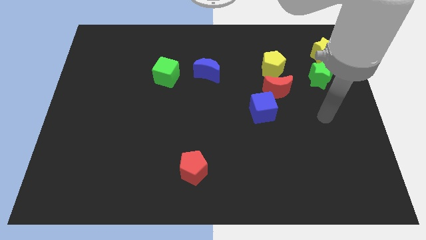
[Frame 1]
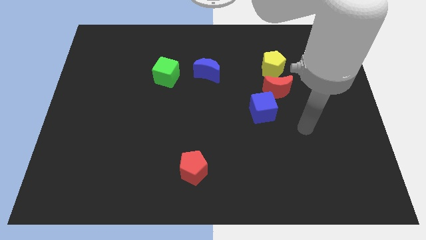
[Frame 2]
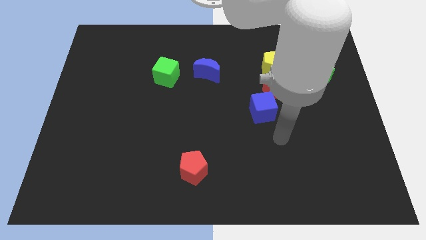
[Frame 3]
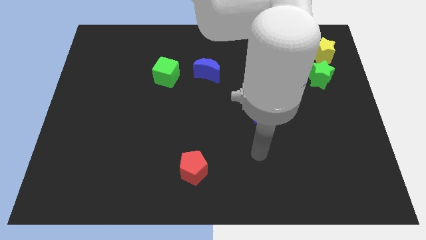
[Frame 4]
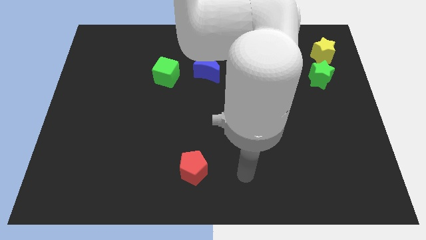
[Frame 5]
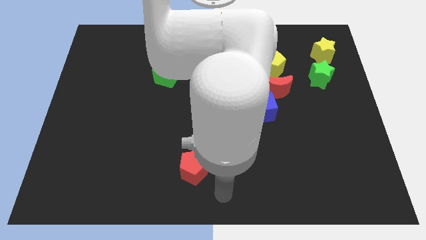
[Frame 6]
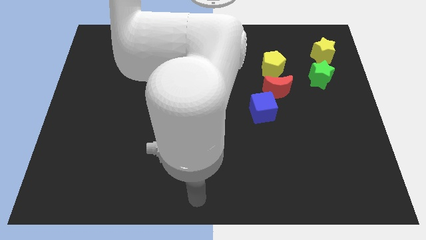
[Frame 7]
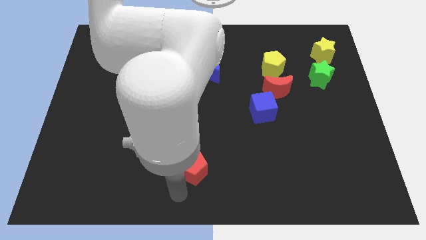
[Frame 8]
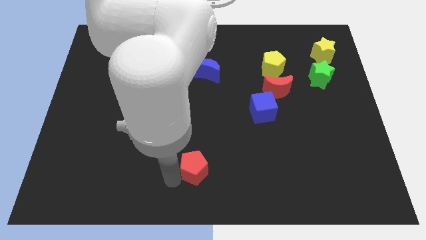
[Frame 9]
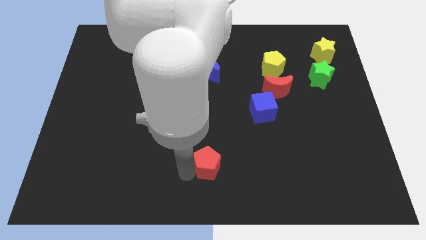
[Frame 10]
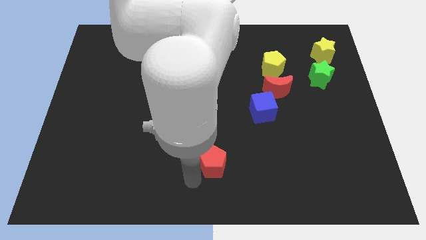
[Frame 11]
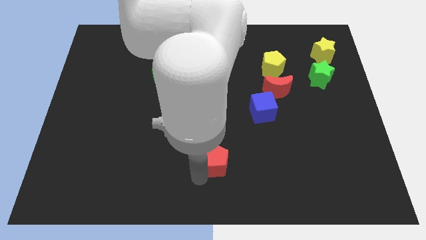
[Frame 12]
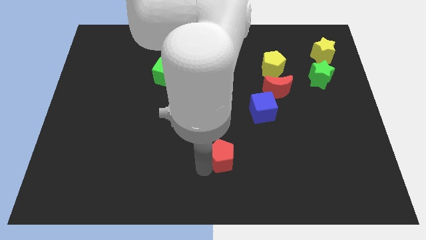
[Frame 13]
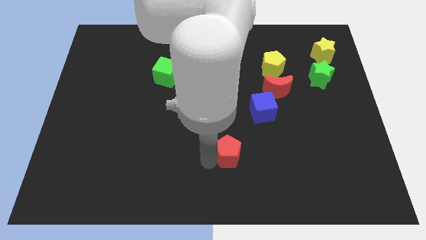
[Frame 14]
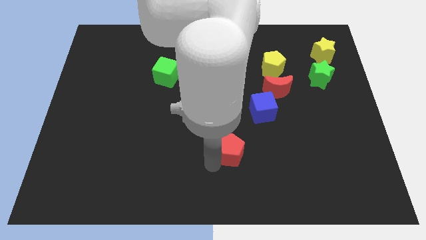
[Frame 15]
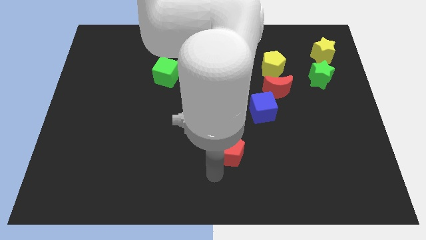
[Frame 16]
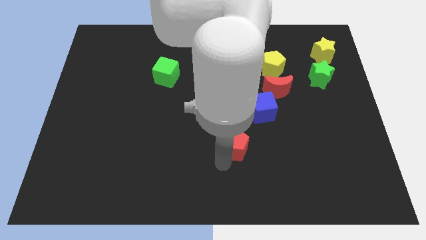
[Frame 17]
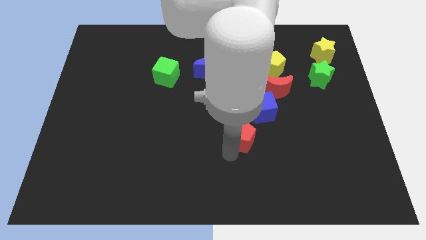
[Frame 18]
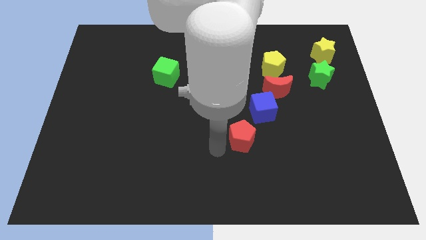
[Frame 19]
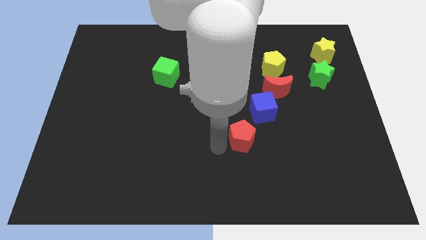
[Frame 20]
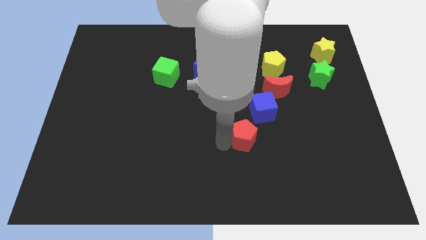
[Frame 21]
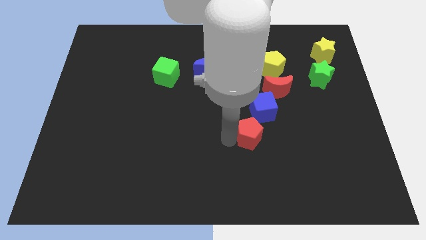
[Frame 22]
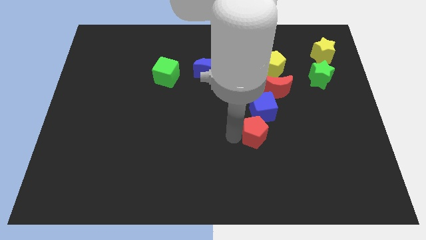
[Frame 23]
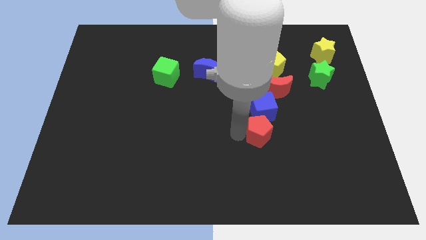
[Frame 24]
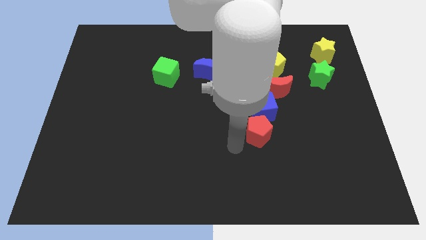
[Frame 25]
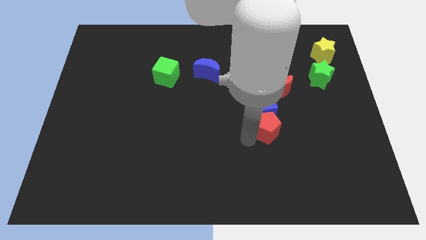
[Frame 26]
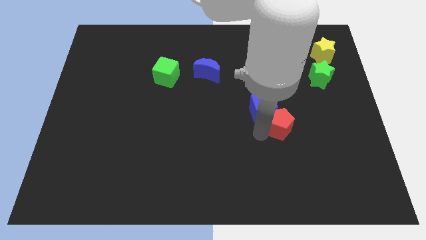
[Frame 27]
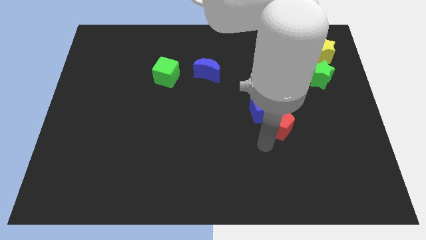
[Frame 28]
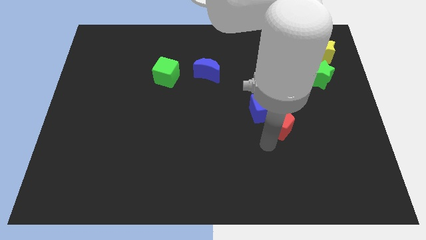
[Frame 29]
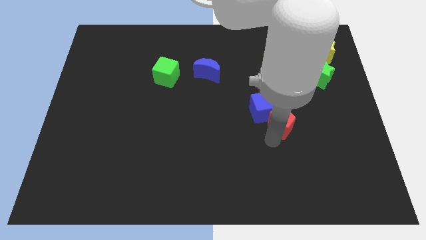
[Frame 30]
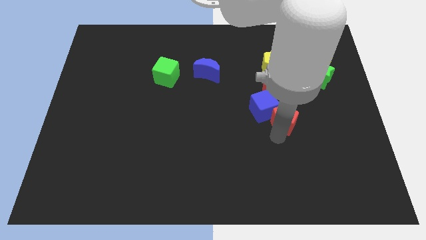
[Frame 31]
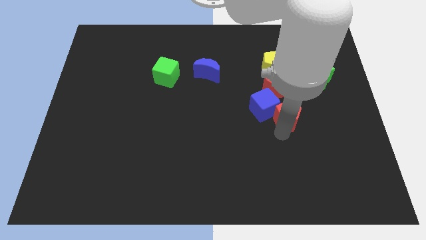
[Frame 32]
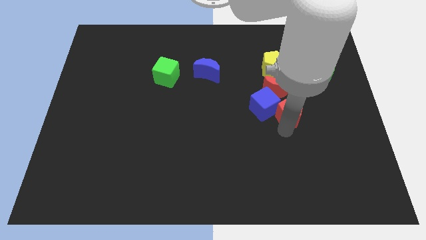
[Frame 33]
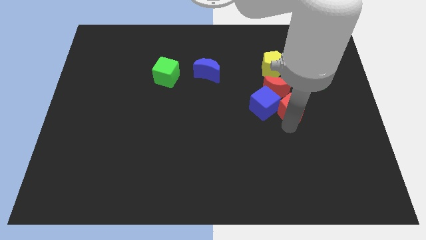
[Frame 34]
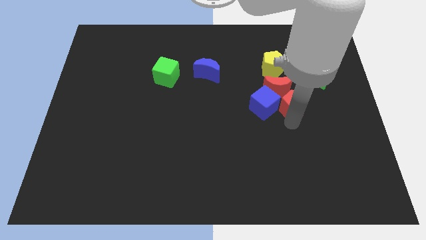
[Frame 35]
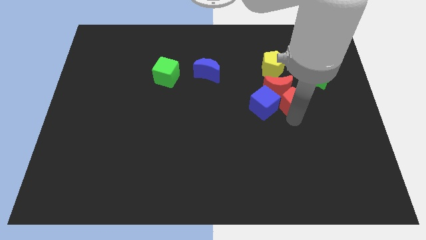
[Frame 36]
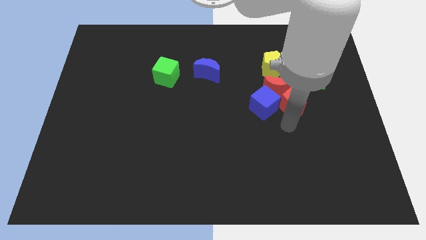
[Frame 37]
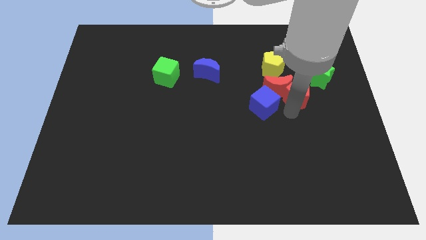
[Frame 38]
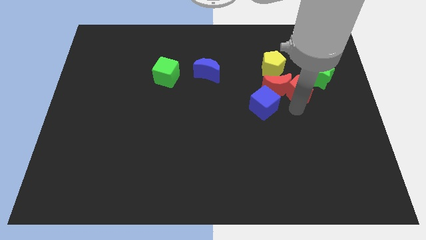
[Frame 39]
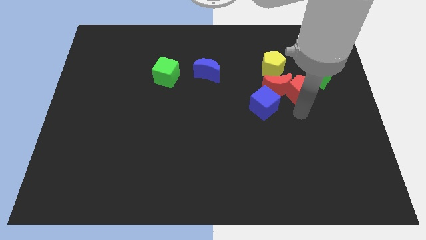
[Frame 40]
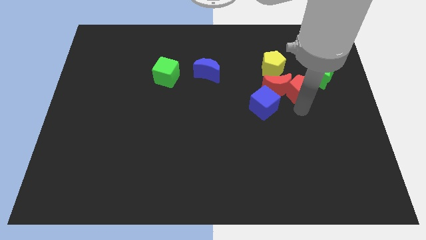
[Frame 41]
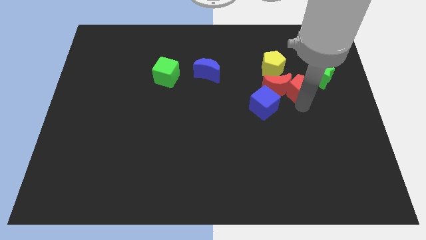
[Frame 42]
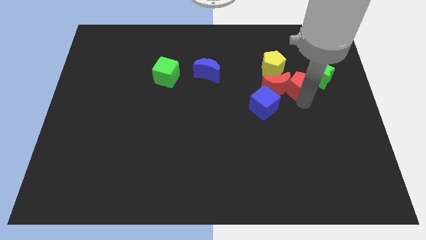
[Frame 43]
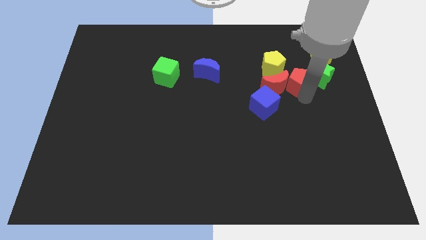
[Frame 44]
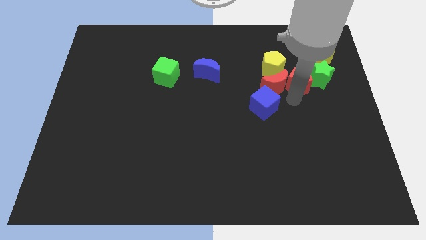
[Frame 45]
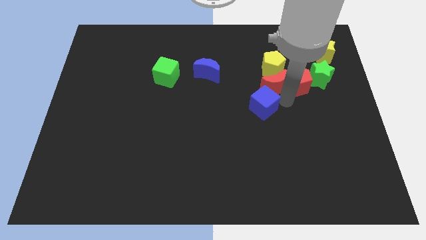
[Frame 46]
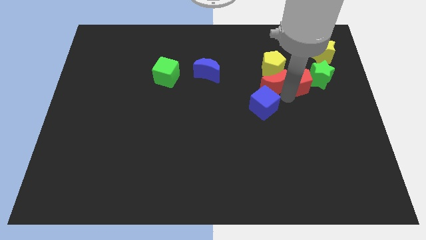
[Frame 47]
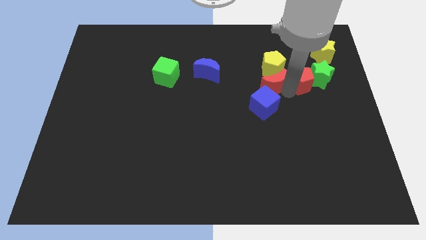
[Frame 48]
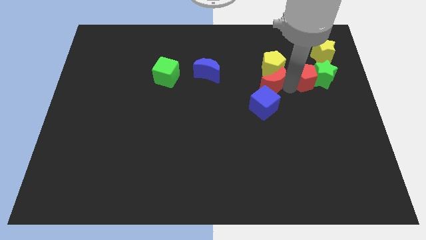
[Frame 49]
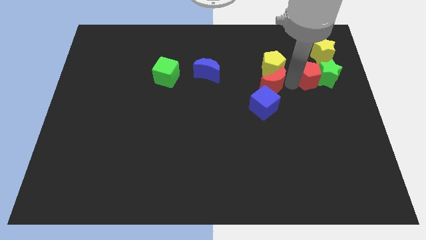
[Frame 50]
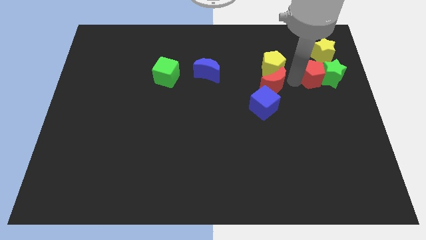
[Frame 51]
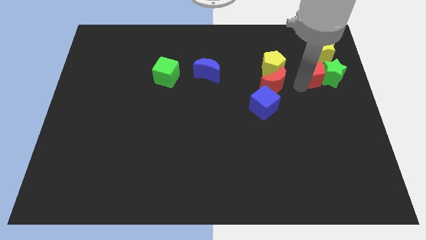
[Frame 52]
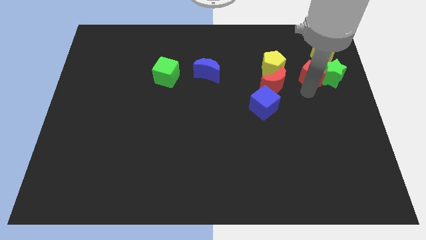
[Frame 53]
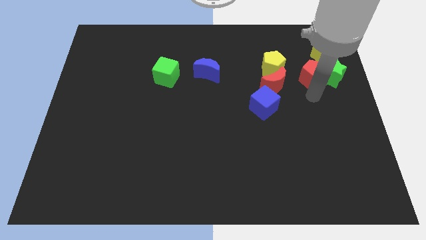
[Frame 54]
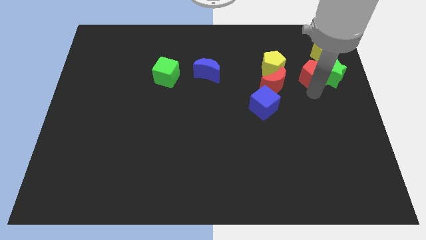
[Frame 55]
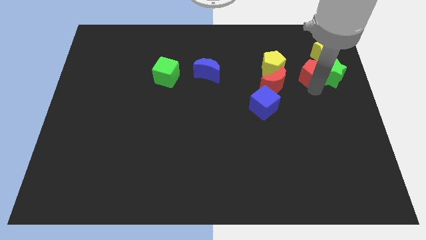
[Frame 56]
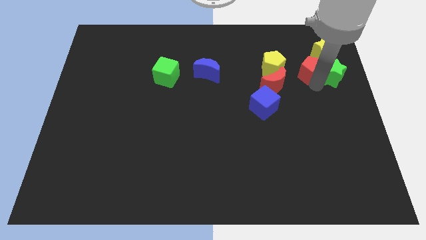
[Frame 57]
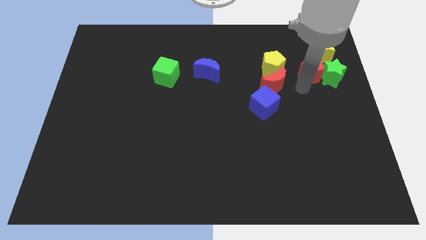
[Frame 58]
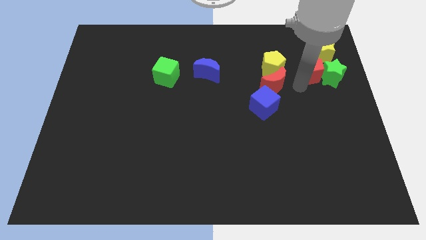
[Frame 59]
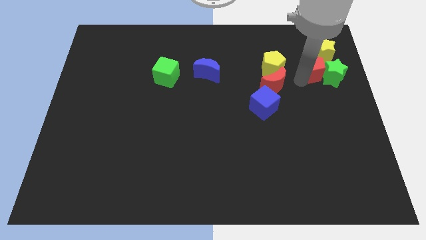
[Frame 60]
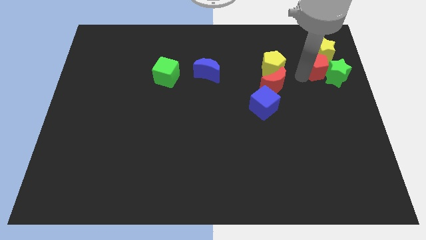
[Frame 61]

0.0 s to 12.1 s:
slide the red pentagon next to the yellow star

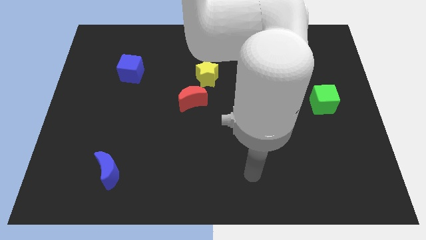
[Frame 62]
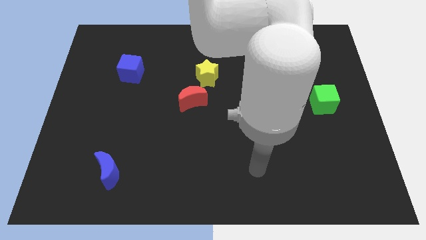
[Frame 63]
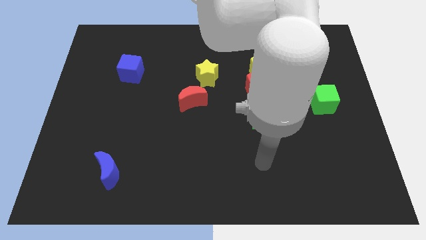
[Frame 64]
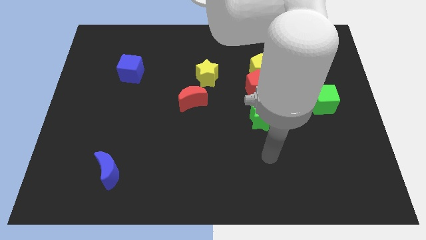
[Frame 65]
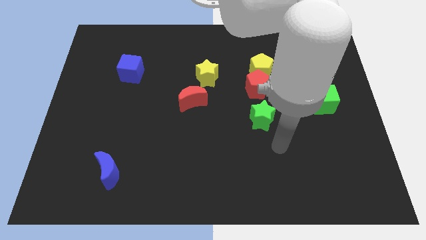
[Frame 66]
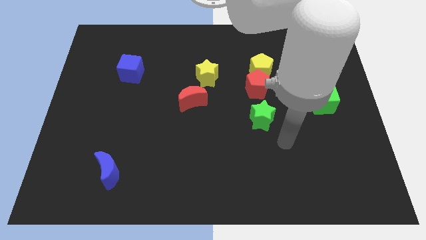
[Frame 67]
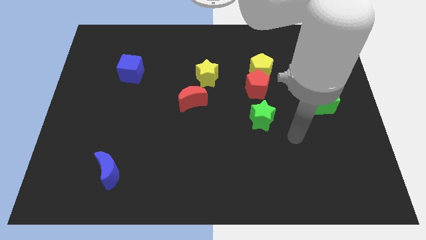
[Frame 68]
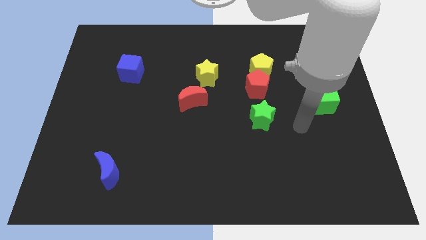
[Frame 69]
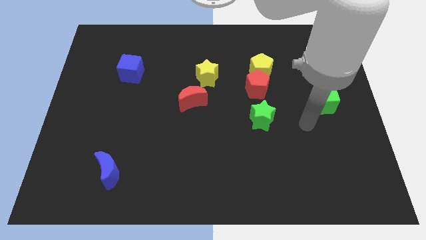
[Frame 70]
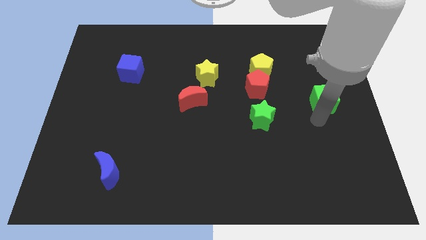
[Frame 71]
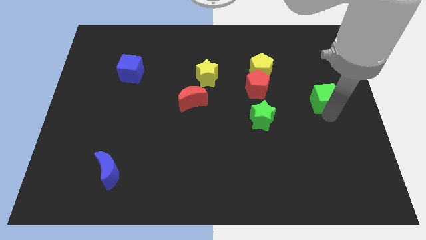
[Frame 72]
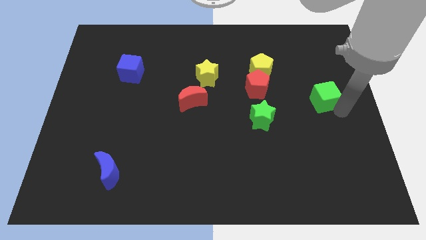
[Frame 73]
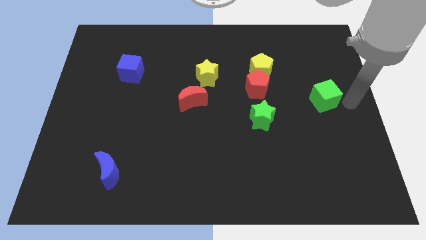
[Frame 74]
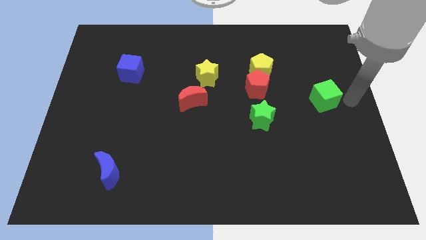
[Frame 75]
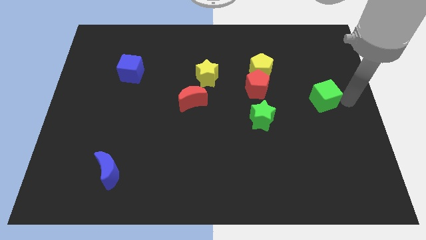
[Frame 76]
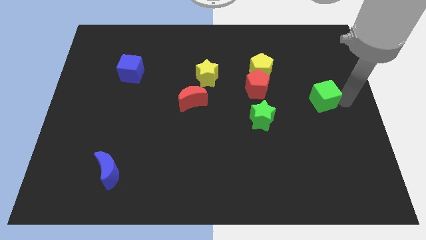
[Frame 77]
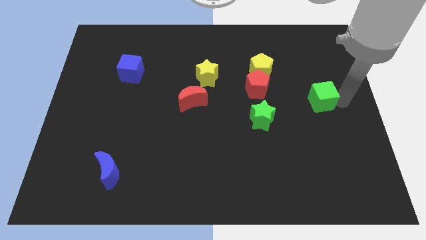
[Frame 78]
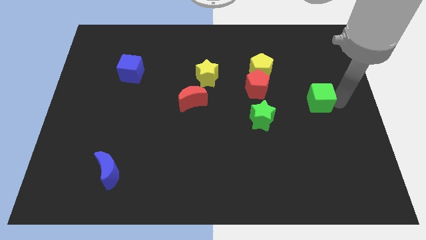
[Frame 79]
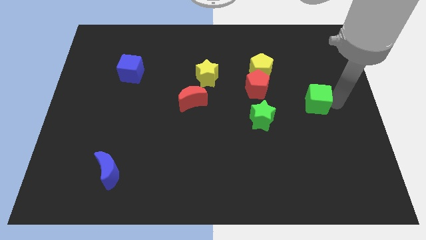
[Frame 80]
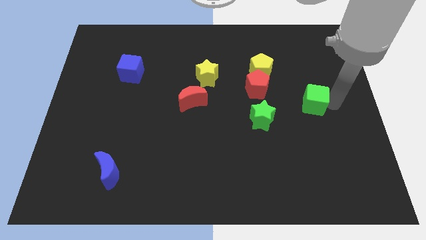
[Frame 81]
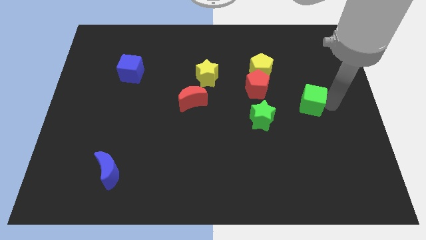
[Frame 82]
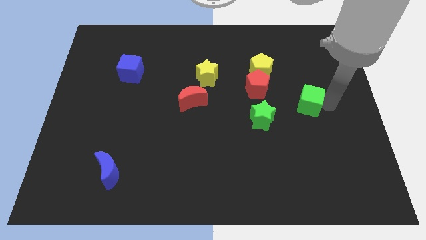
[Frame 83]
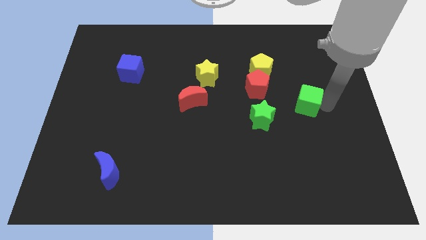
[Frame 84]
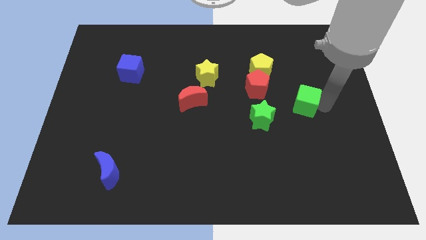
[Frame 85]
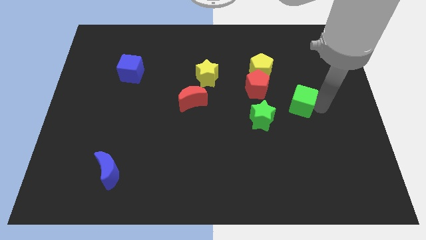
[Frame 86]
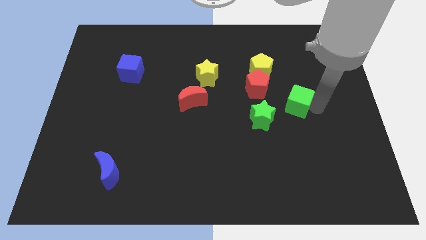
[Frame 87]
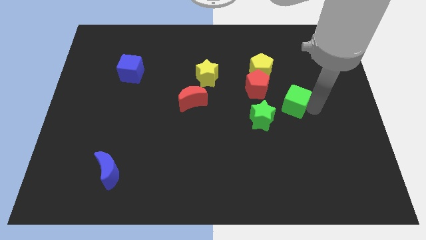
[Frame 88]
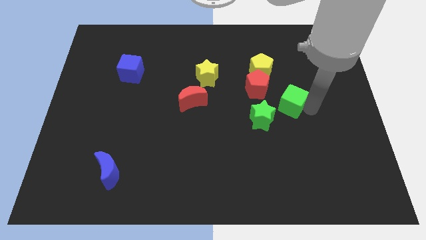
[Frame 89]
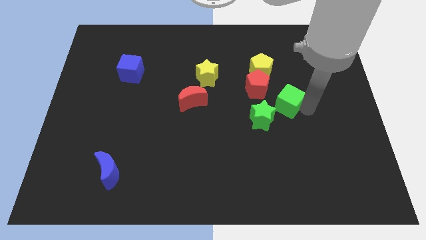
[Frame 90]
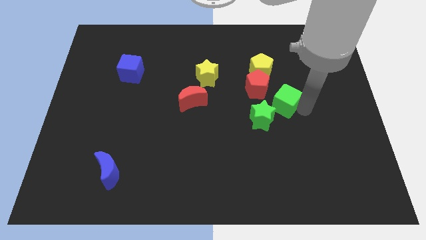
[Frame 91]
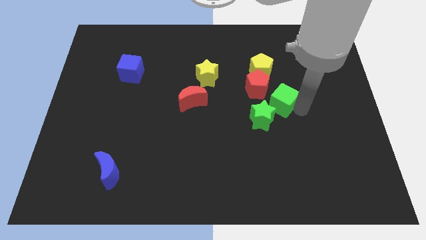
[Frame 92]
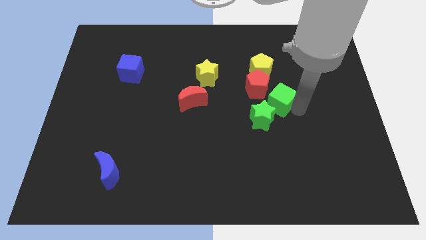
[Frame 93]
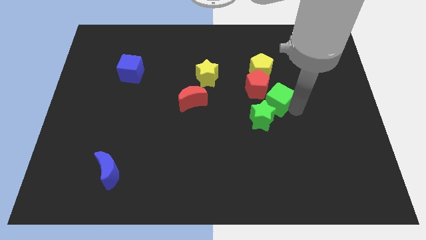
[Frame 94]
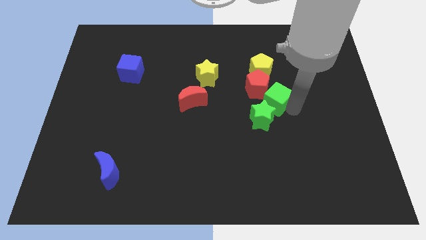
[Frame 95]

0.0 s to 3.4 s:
slide the green cube close to the red pentagon
